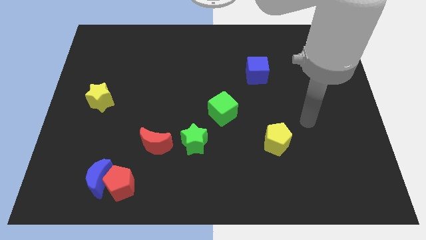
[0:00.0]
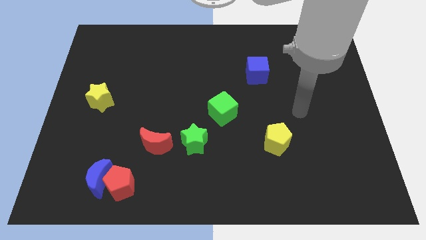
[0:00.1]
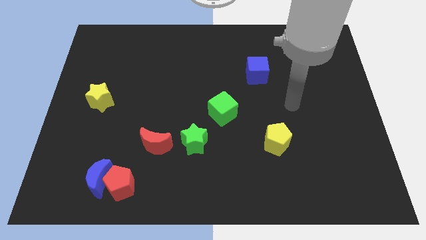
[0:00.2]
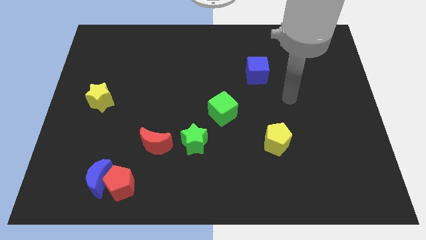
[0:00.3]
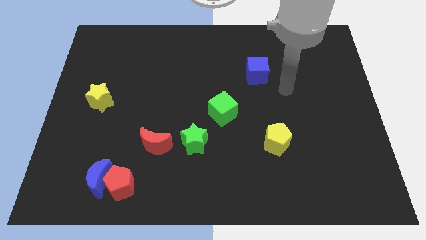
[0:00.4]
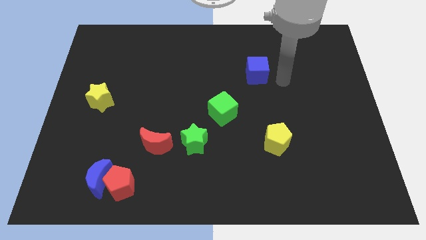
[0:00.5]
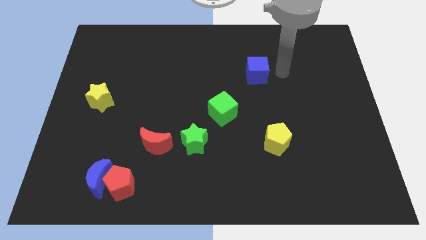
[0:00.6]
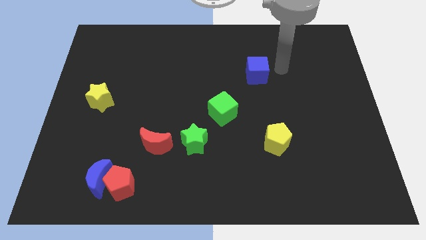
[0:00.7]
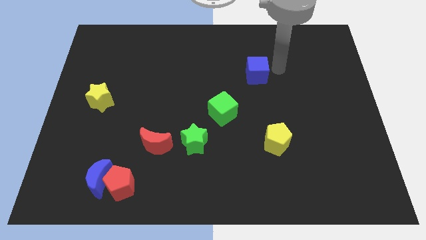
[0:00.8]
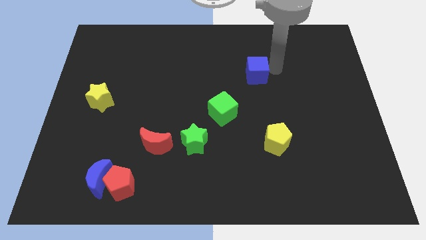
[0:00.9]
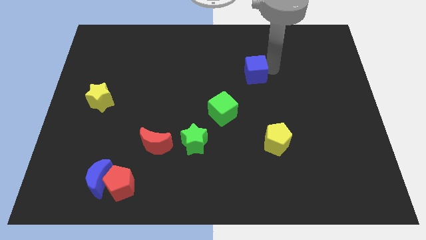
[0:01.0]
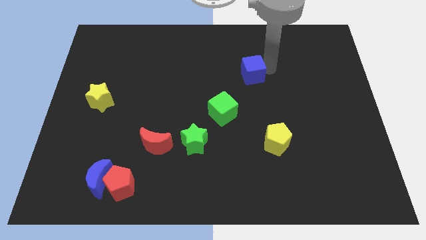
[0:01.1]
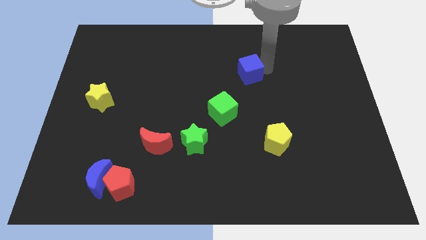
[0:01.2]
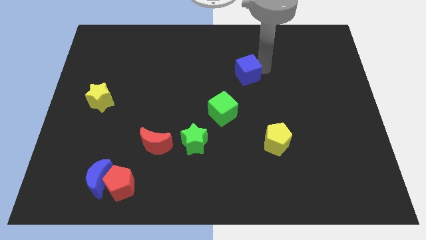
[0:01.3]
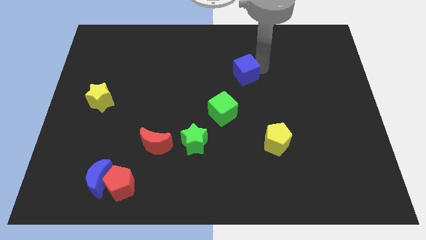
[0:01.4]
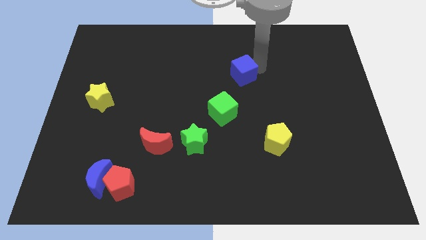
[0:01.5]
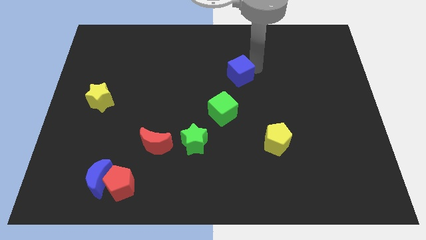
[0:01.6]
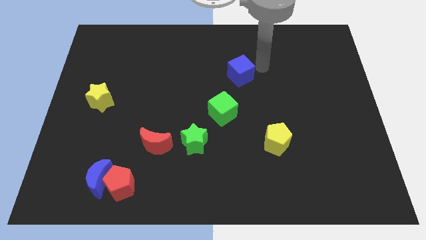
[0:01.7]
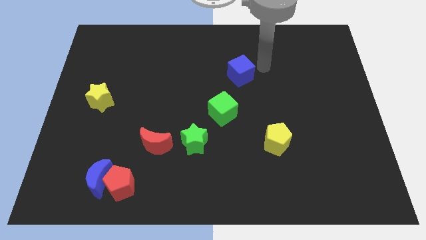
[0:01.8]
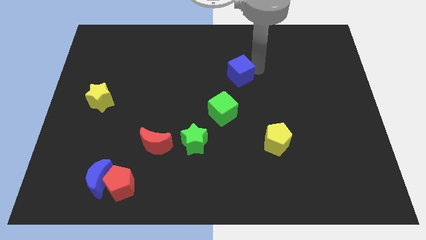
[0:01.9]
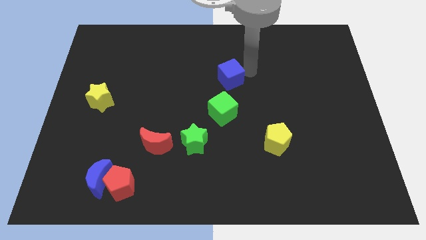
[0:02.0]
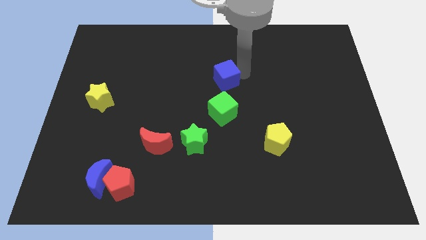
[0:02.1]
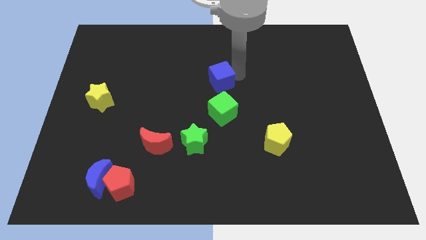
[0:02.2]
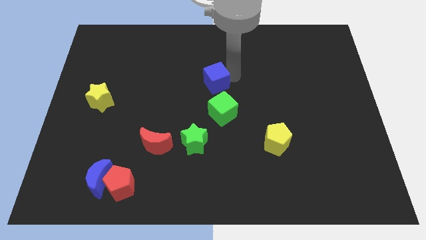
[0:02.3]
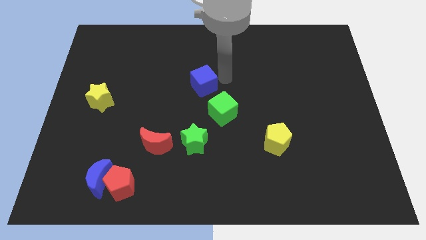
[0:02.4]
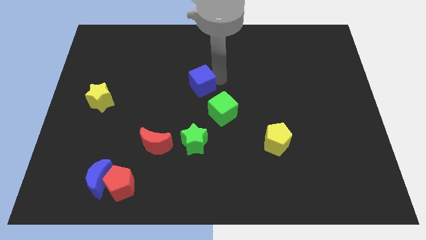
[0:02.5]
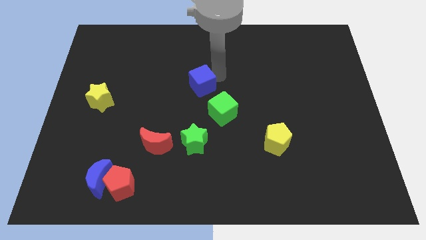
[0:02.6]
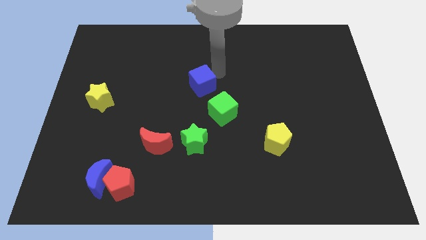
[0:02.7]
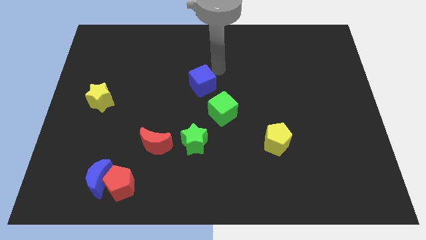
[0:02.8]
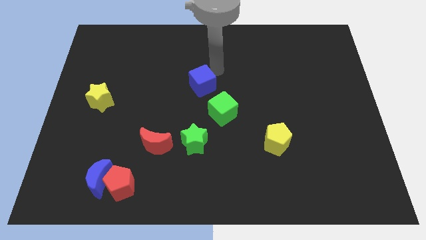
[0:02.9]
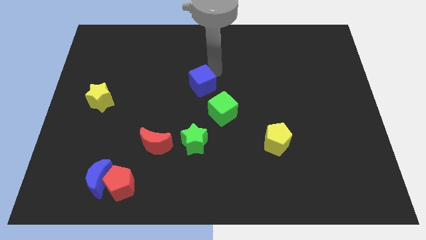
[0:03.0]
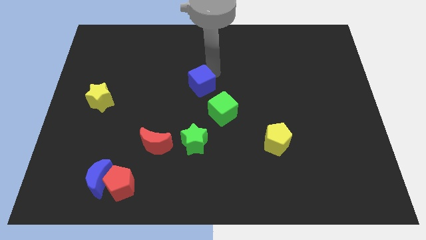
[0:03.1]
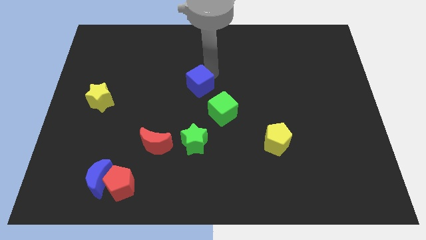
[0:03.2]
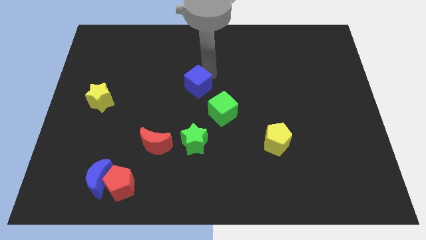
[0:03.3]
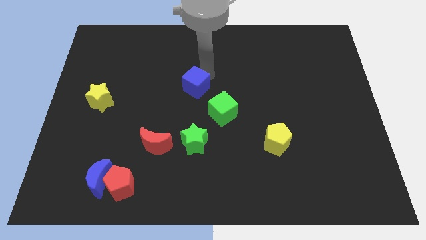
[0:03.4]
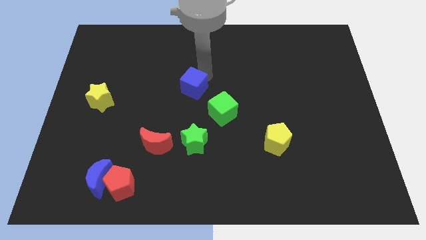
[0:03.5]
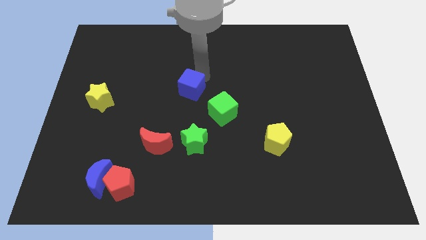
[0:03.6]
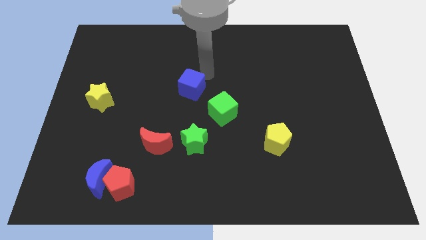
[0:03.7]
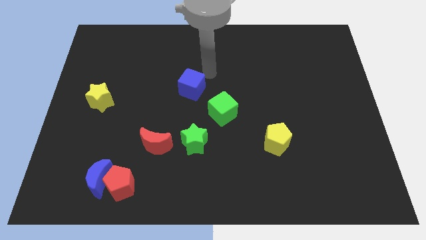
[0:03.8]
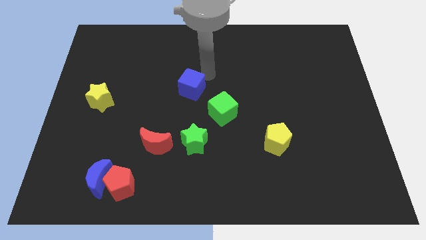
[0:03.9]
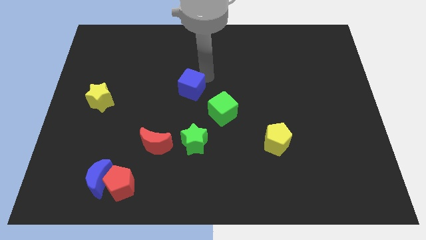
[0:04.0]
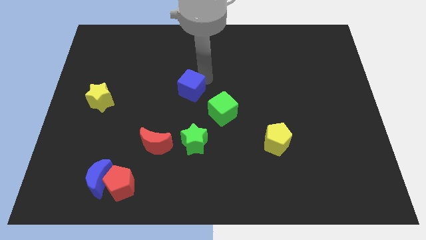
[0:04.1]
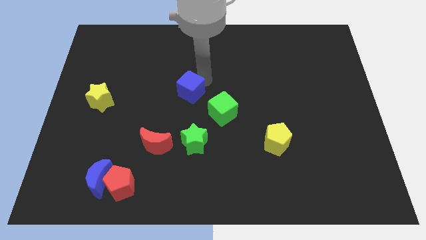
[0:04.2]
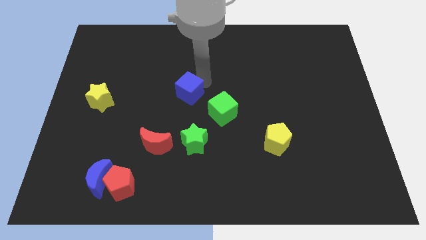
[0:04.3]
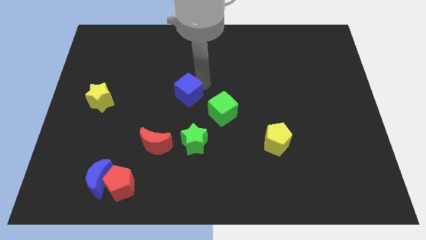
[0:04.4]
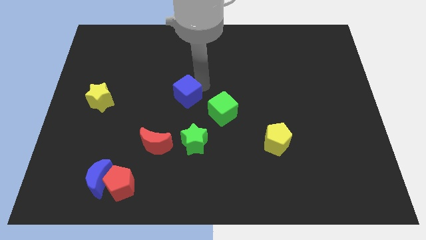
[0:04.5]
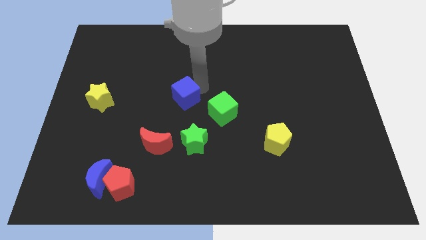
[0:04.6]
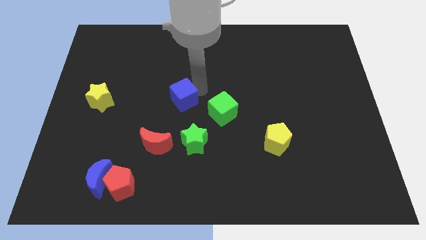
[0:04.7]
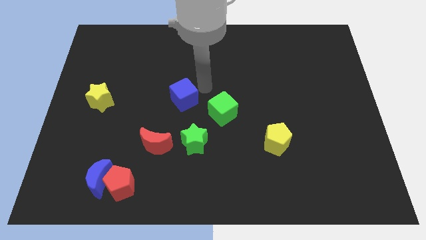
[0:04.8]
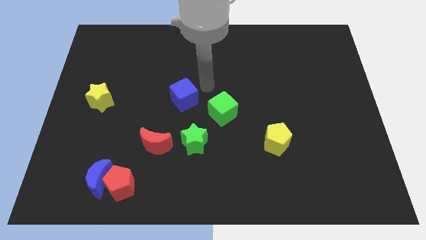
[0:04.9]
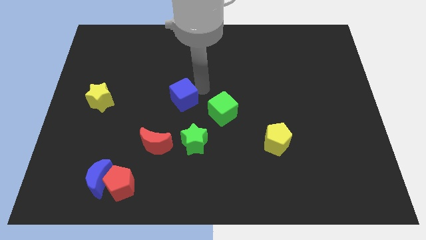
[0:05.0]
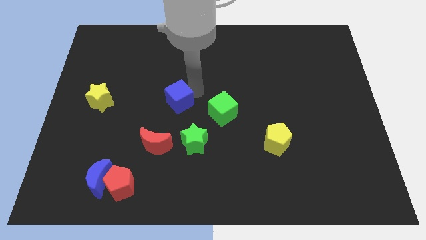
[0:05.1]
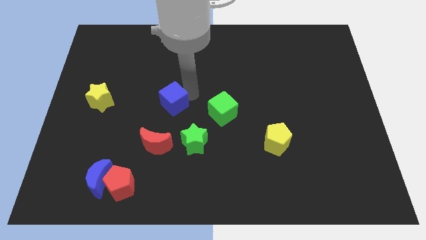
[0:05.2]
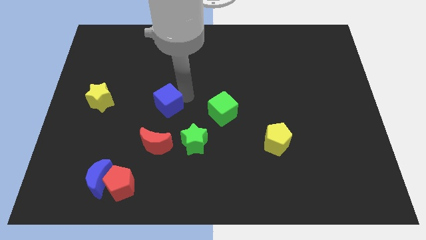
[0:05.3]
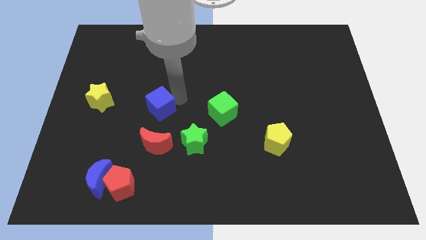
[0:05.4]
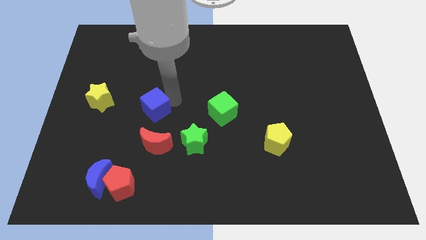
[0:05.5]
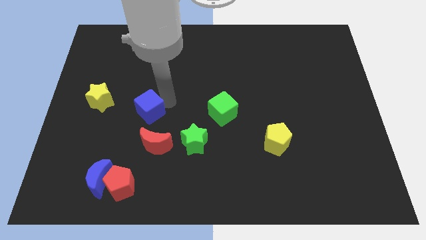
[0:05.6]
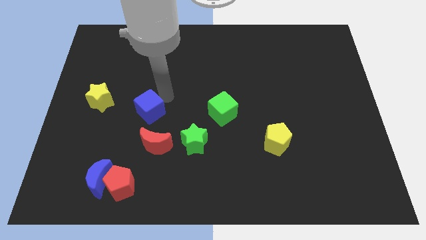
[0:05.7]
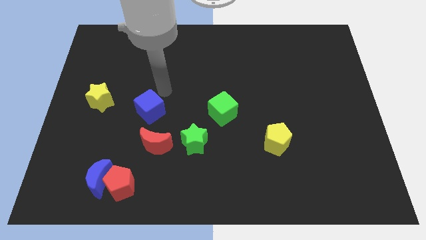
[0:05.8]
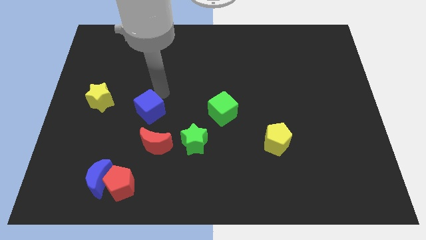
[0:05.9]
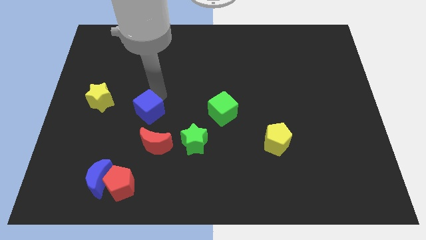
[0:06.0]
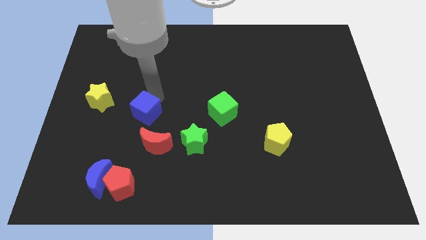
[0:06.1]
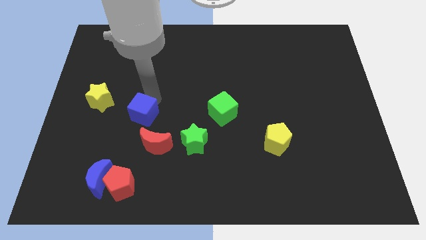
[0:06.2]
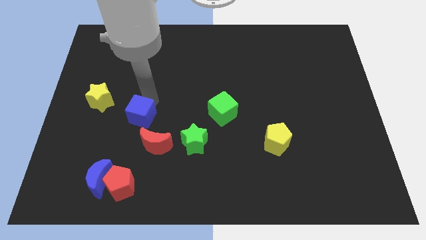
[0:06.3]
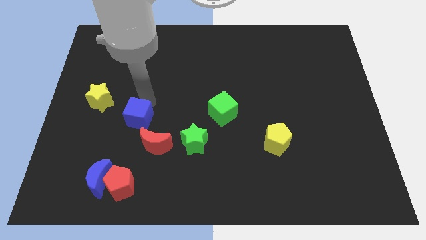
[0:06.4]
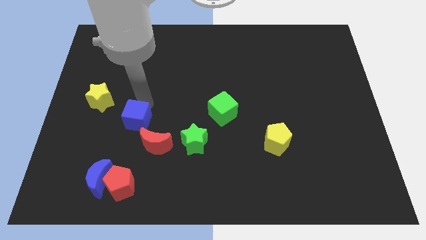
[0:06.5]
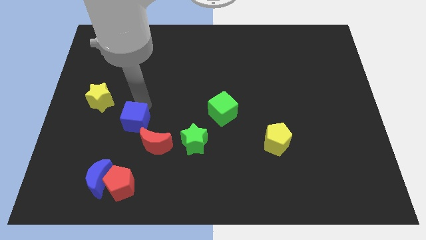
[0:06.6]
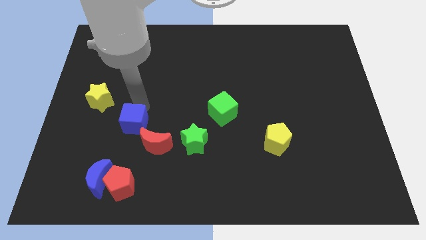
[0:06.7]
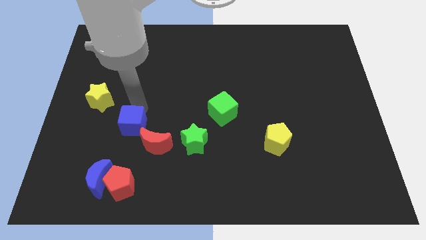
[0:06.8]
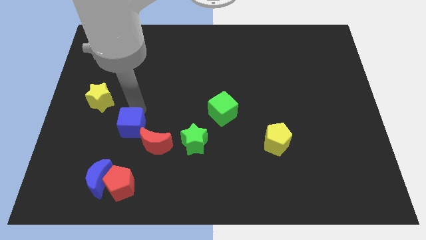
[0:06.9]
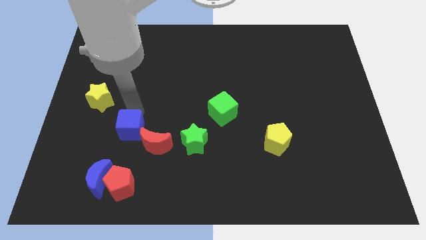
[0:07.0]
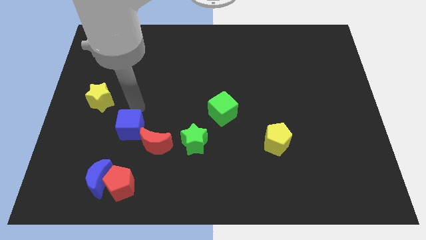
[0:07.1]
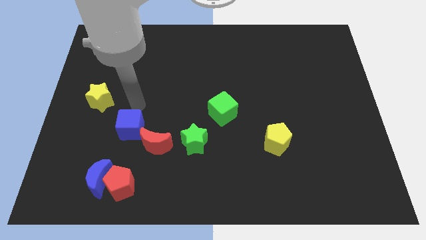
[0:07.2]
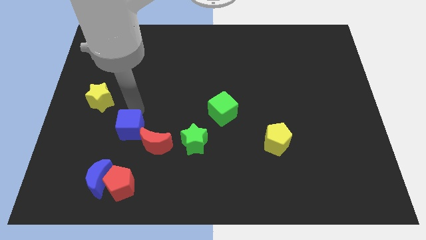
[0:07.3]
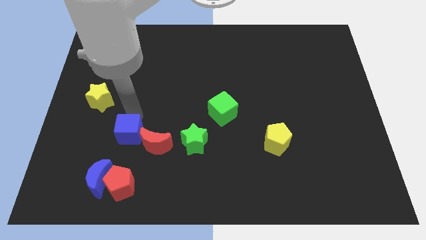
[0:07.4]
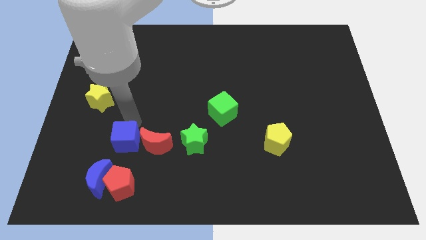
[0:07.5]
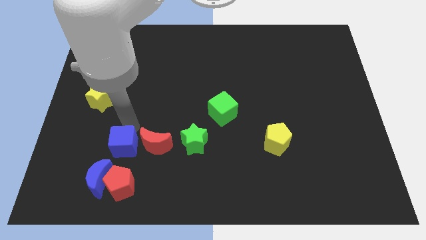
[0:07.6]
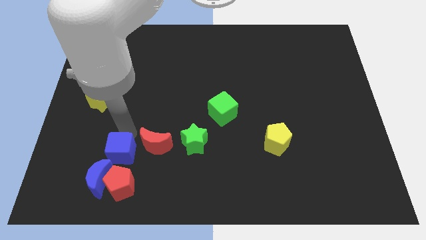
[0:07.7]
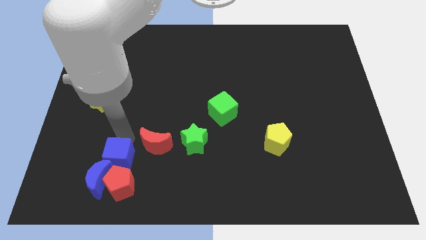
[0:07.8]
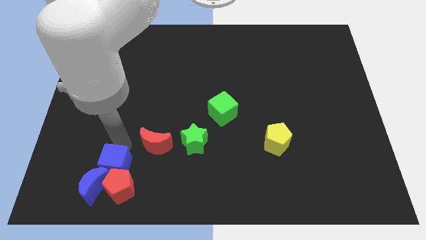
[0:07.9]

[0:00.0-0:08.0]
put the blue cube close to the red pentagon

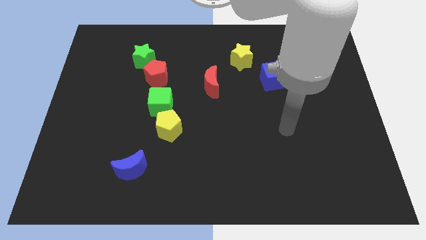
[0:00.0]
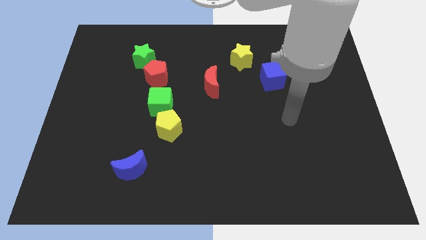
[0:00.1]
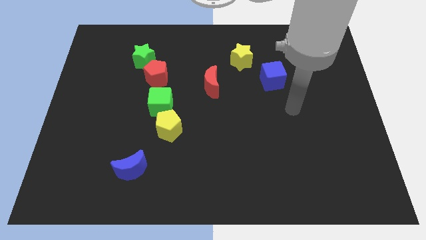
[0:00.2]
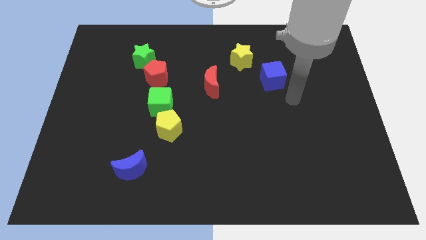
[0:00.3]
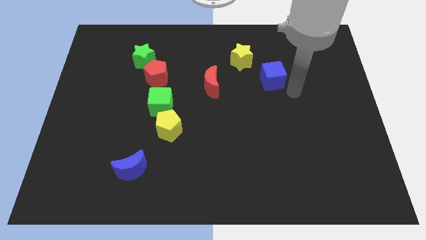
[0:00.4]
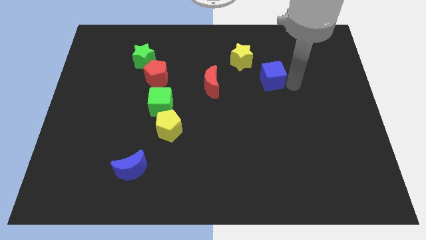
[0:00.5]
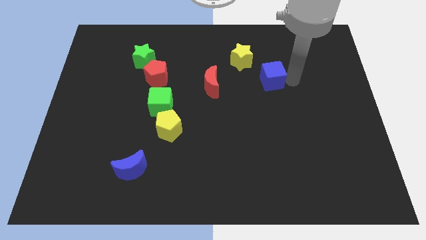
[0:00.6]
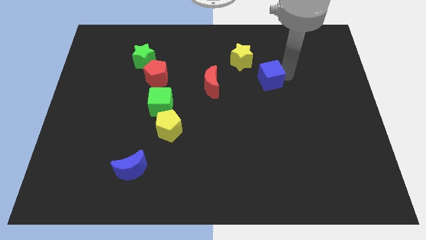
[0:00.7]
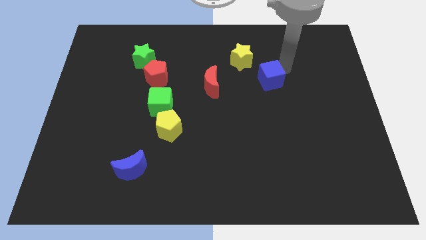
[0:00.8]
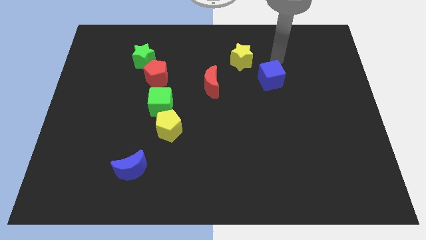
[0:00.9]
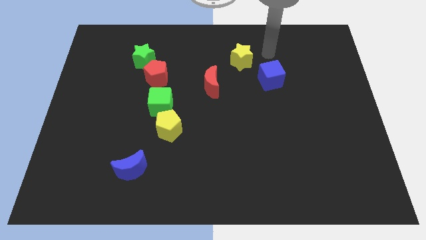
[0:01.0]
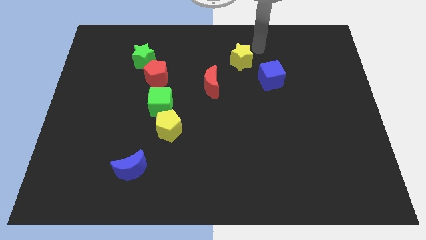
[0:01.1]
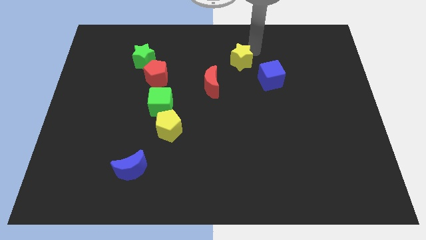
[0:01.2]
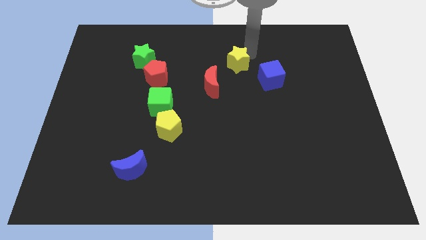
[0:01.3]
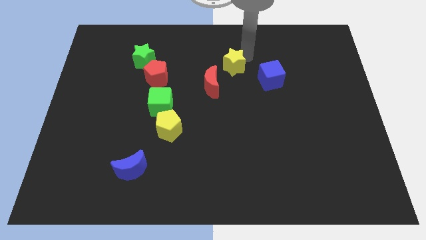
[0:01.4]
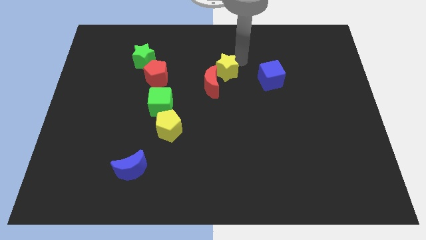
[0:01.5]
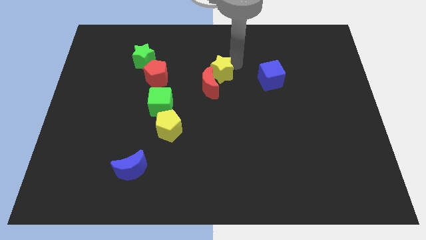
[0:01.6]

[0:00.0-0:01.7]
move the yellow star close to the red moon
